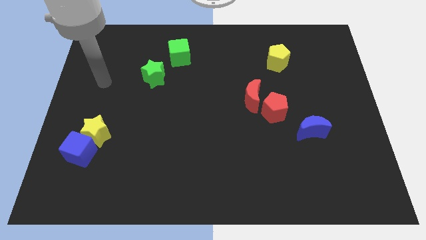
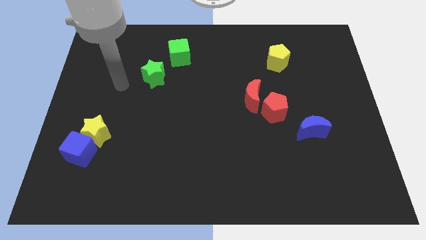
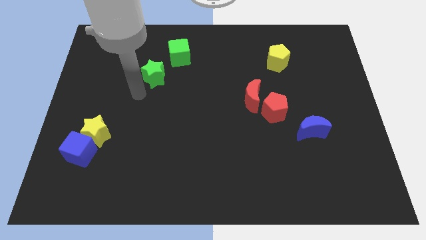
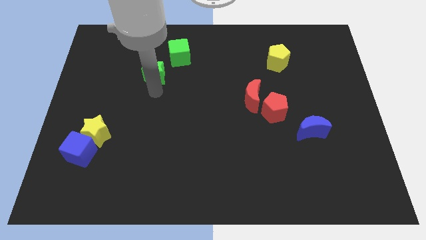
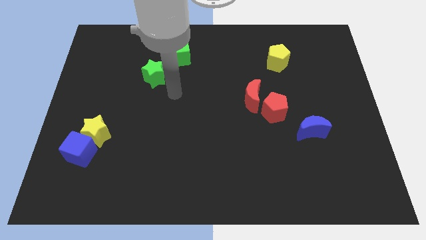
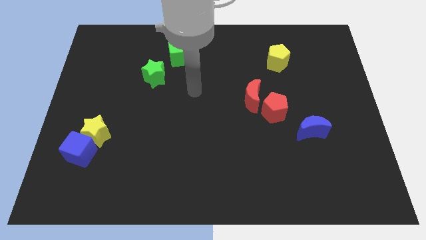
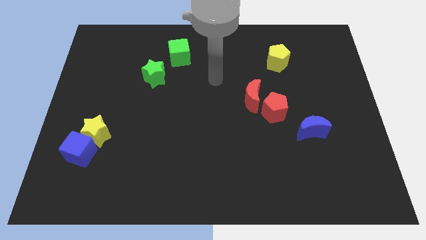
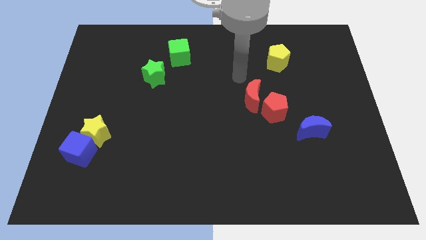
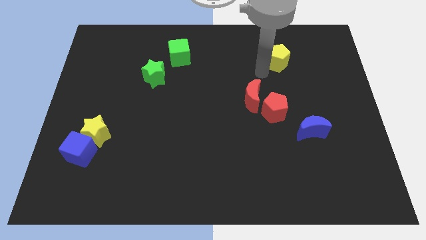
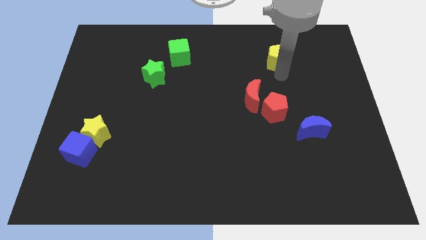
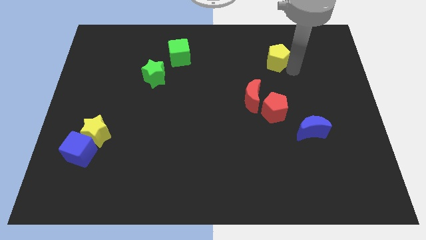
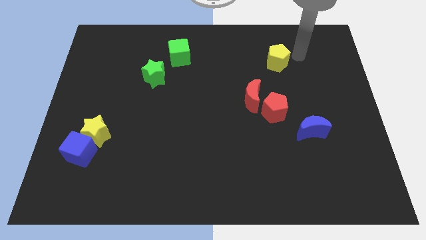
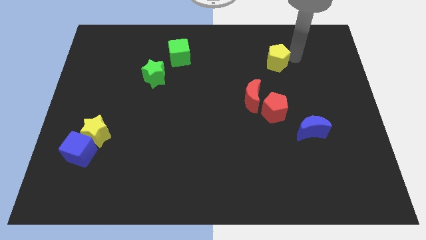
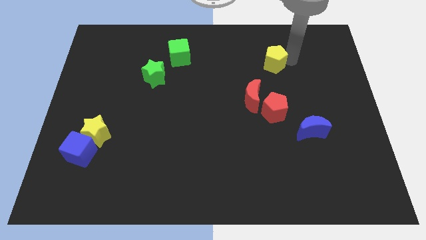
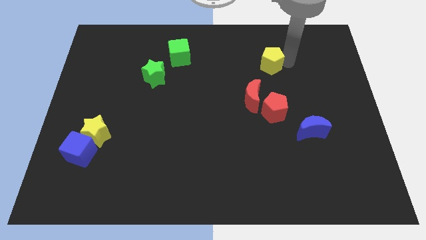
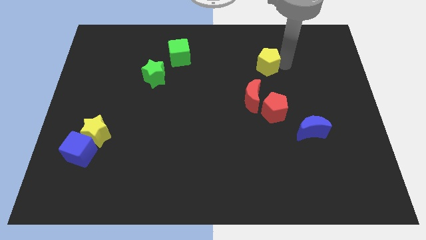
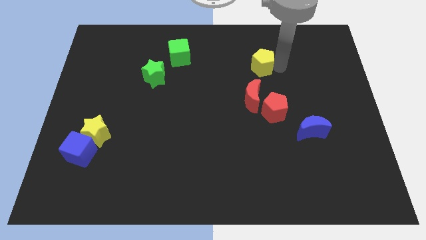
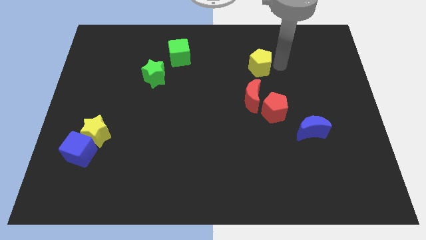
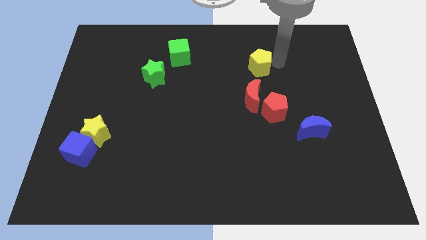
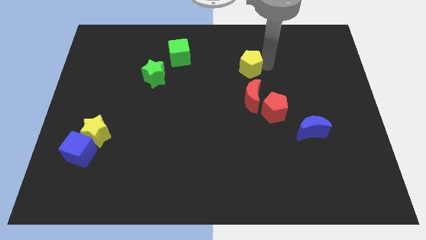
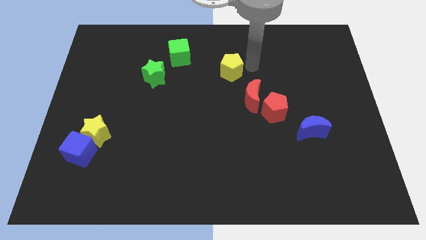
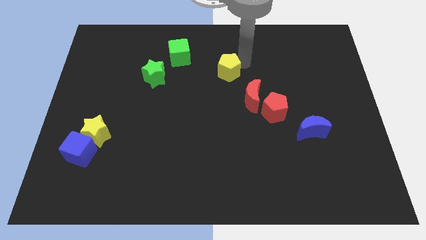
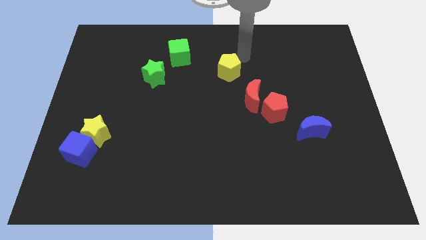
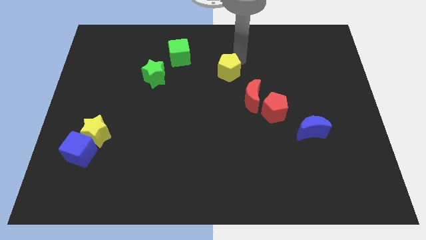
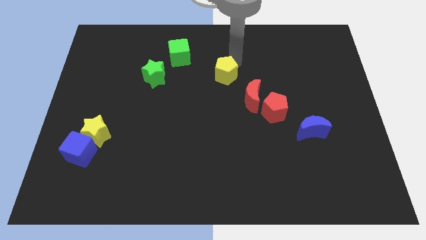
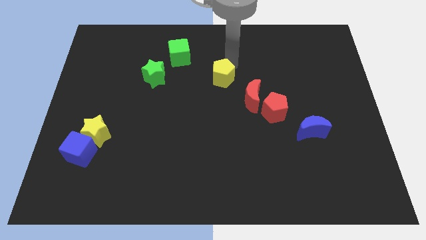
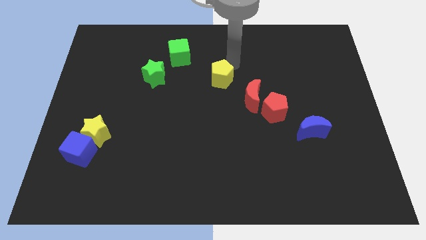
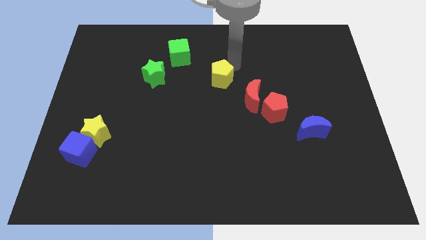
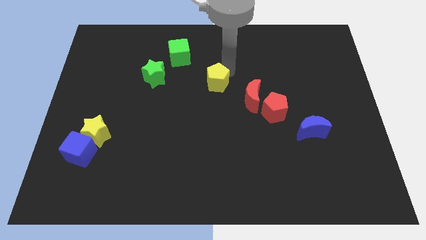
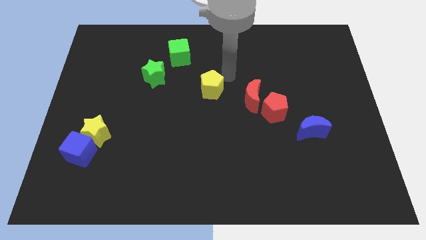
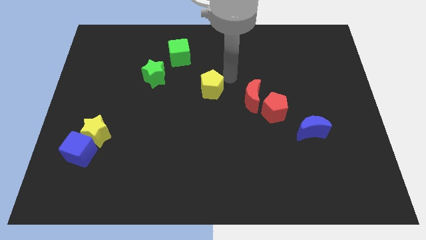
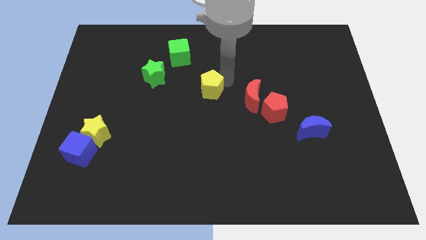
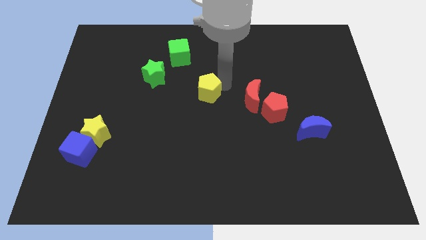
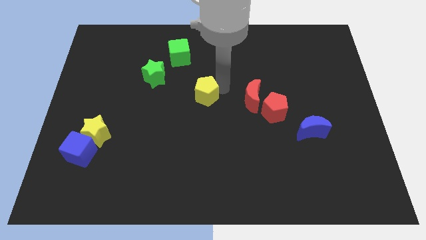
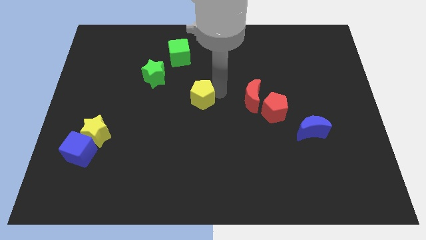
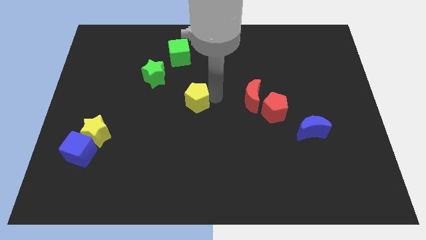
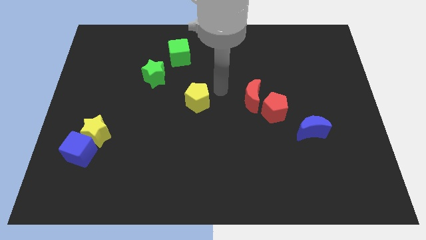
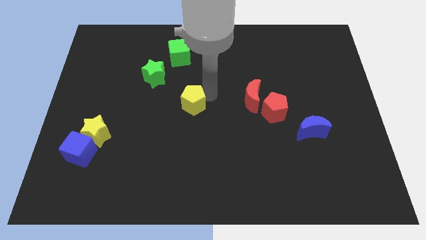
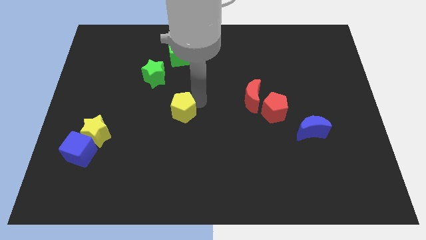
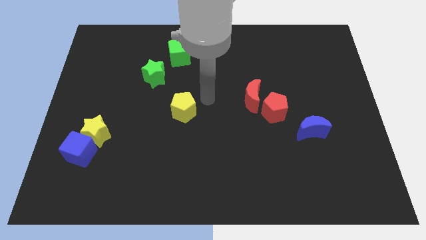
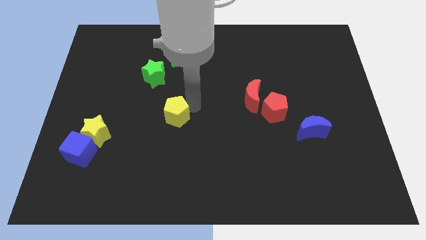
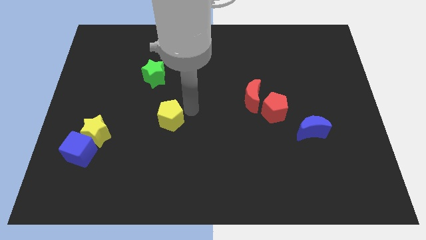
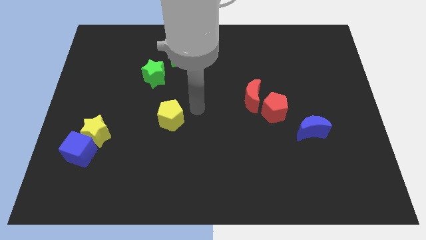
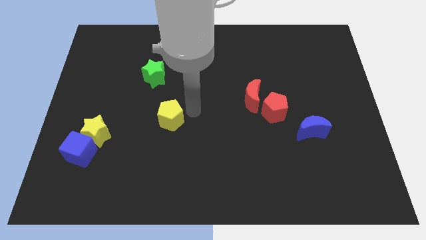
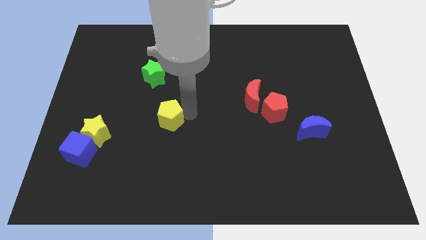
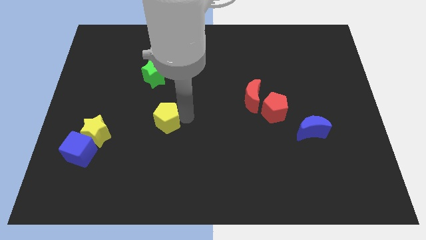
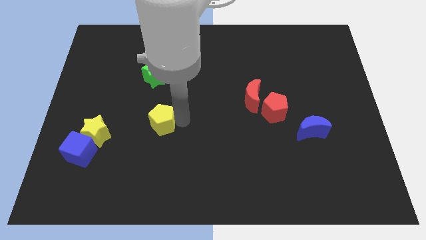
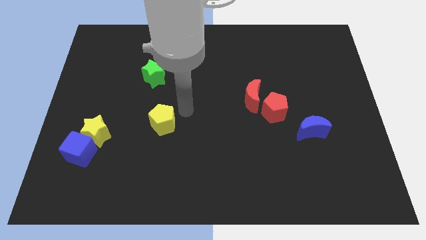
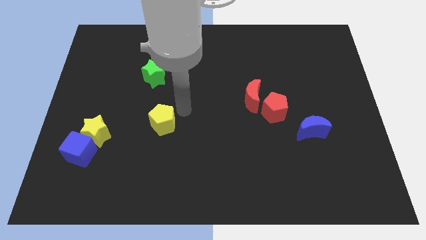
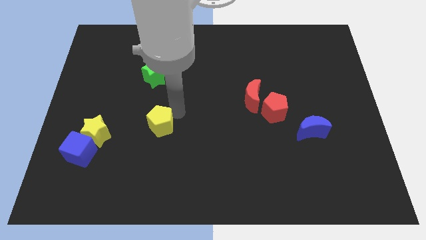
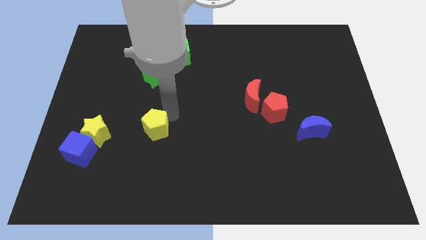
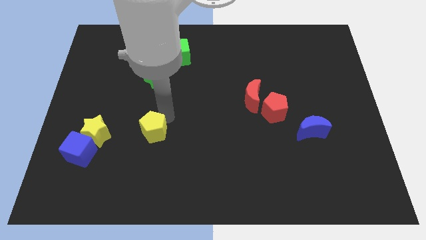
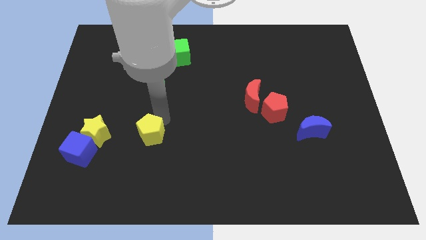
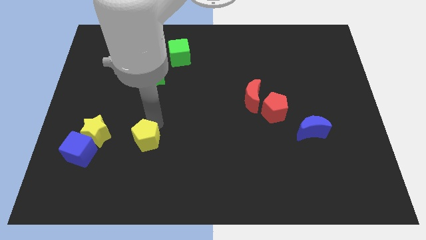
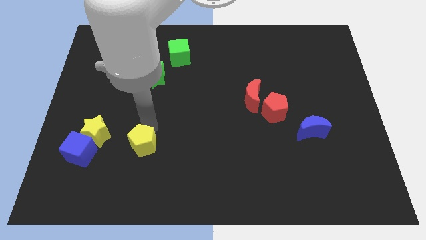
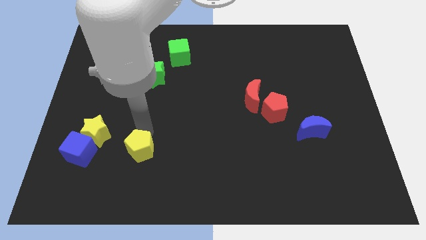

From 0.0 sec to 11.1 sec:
move the yellow pentagon to the bottom right side of the yellow star

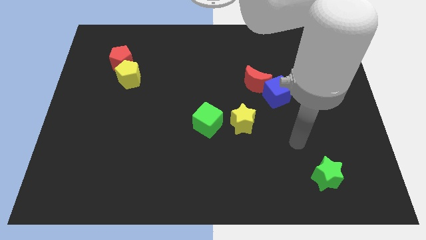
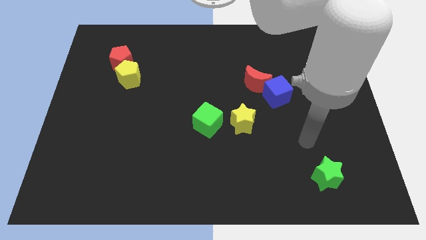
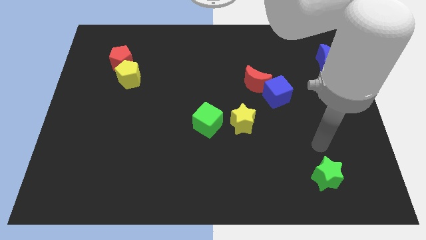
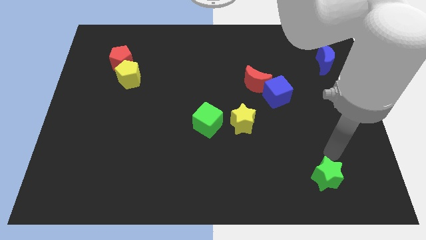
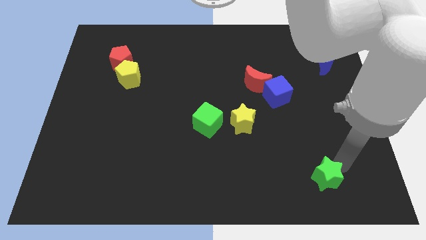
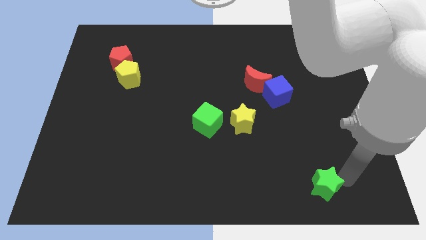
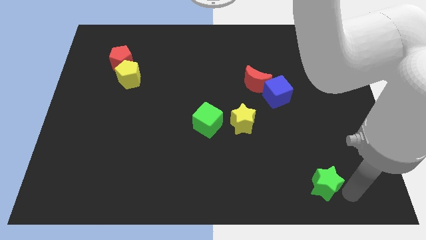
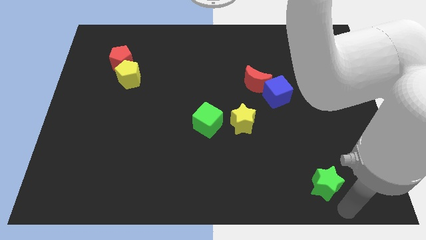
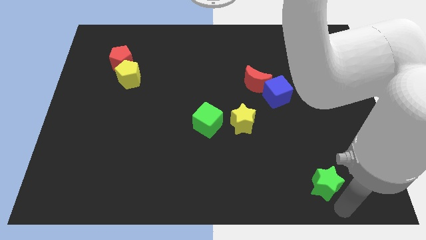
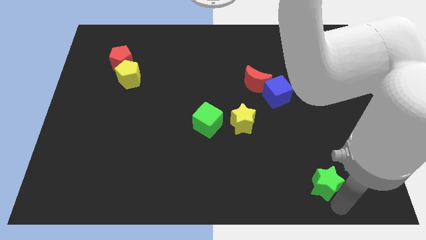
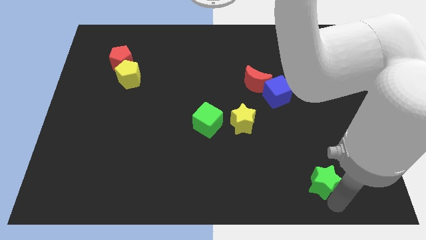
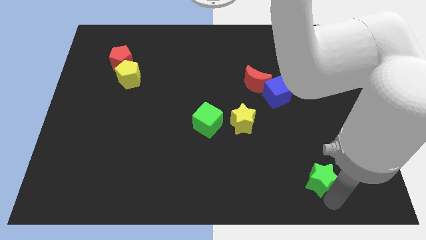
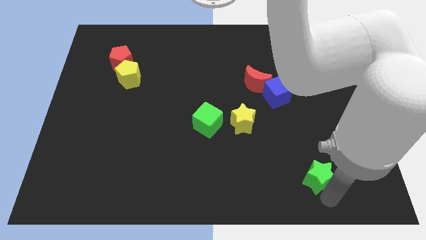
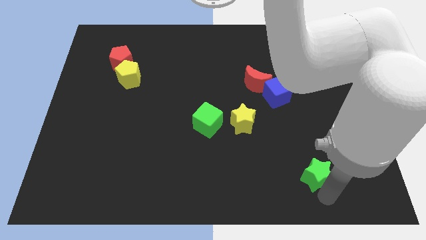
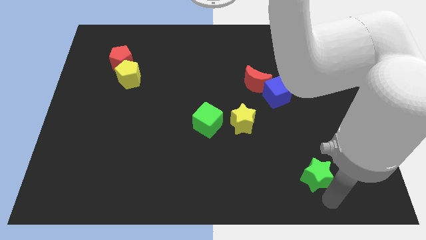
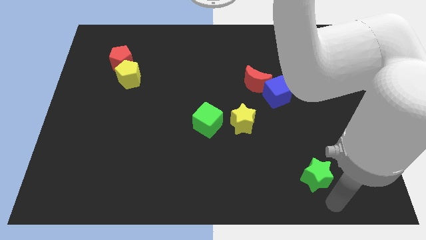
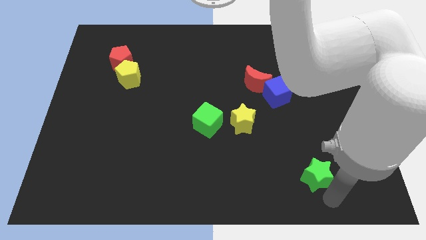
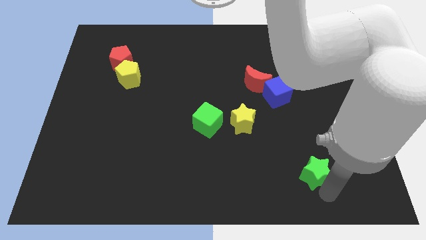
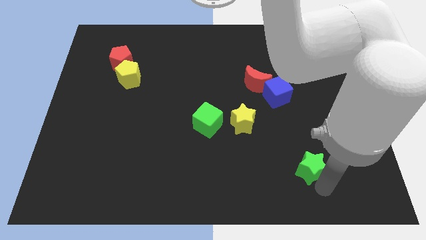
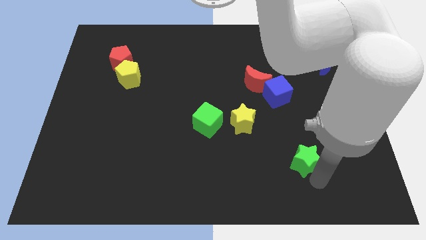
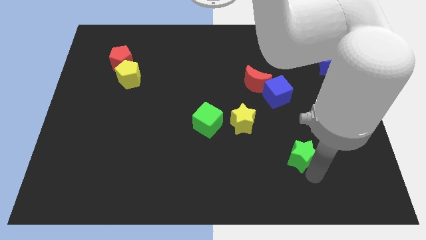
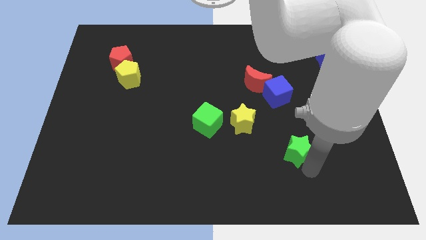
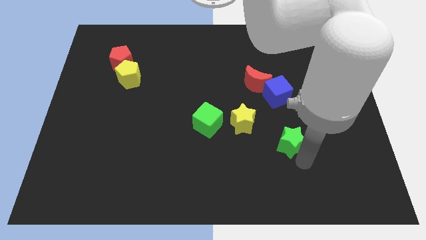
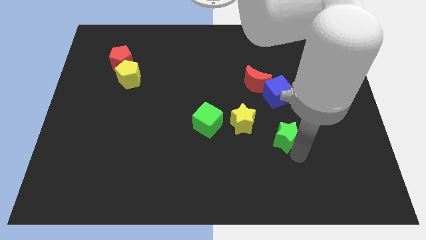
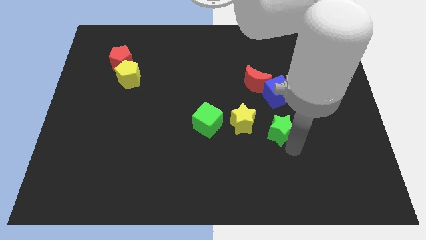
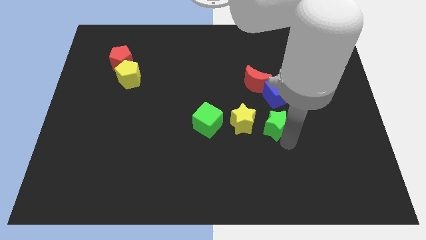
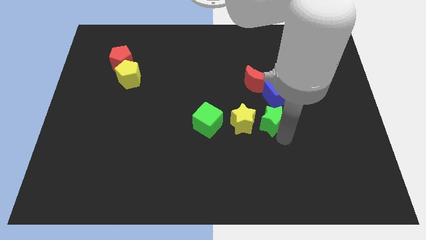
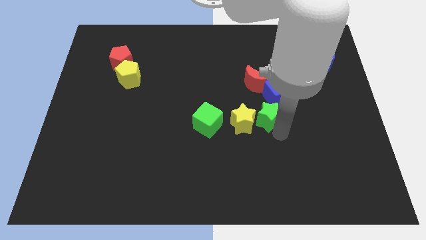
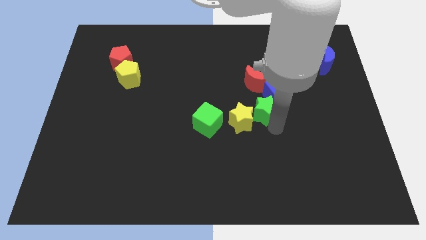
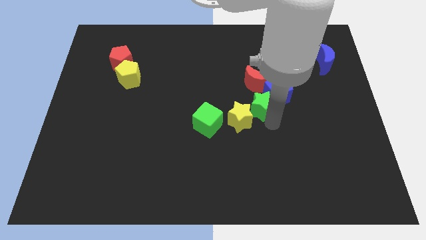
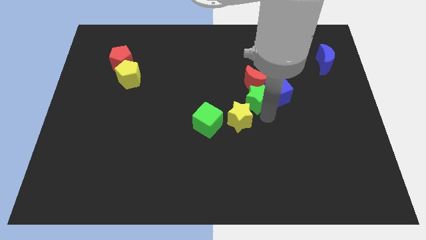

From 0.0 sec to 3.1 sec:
push the green star to the top side of the yellow star
